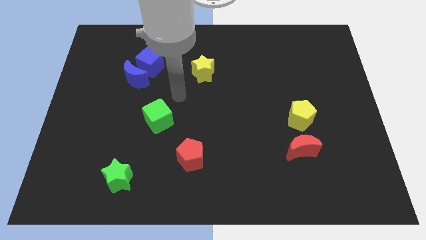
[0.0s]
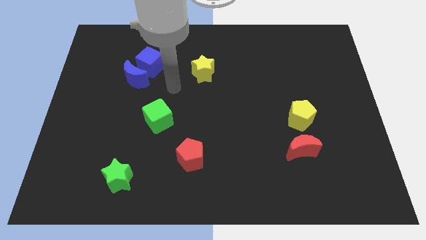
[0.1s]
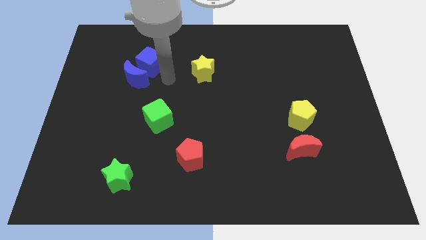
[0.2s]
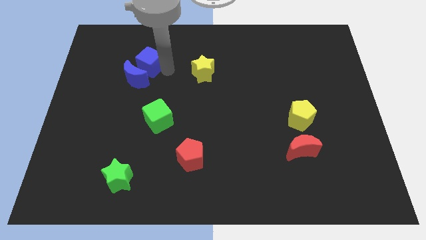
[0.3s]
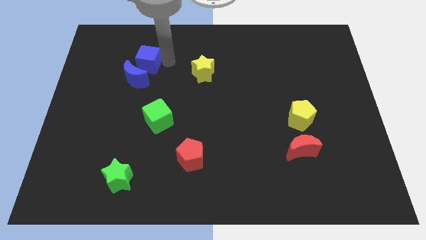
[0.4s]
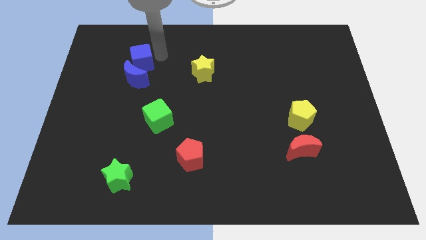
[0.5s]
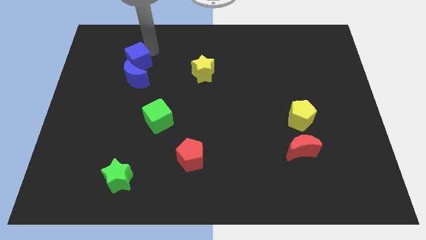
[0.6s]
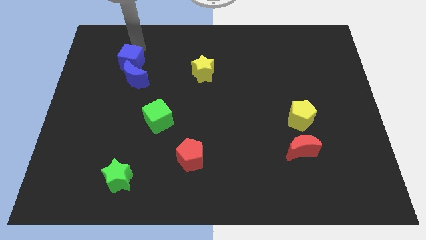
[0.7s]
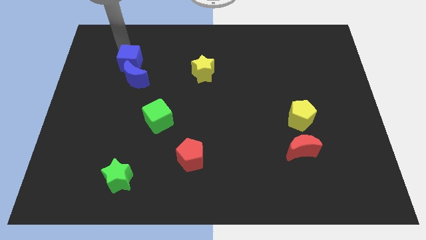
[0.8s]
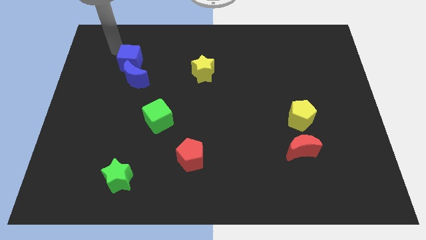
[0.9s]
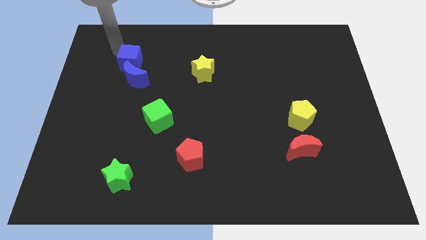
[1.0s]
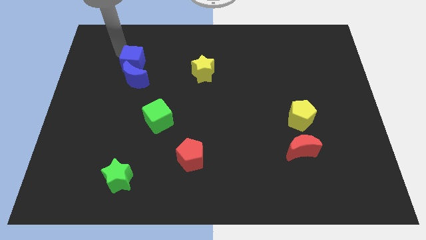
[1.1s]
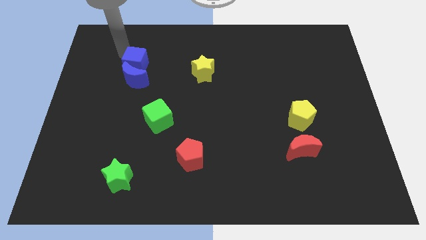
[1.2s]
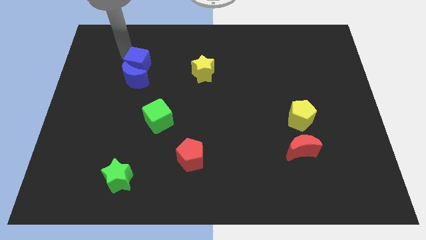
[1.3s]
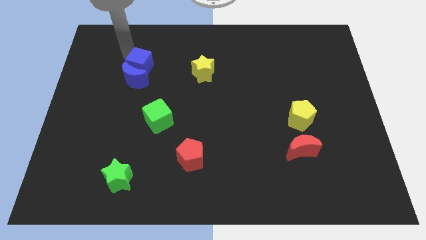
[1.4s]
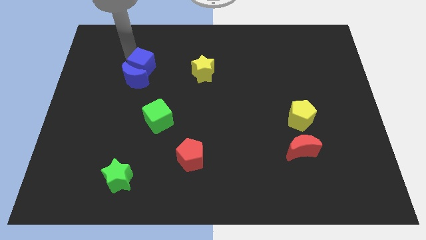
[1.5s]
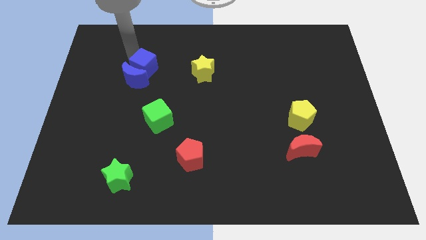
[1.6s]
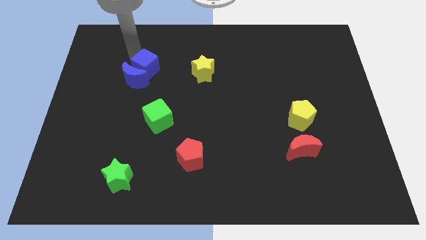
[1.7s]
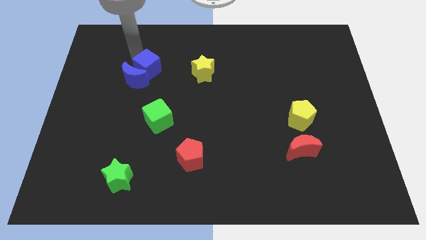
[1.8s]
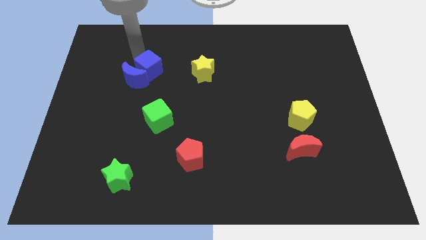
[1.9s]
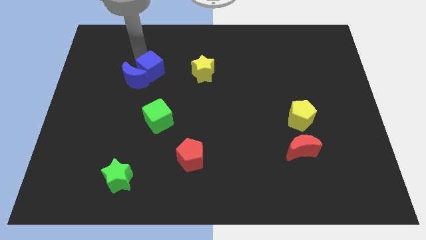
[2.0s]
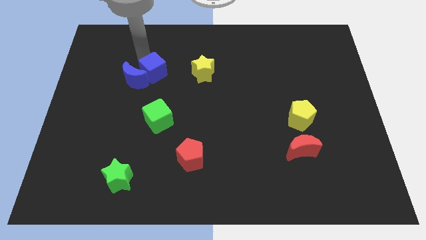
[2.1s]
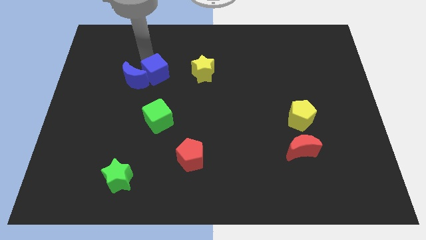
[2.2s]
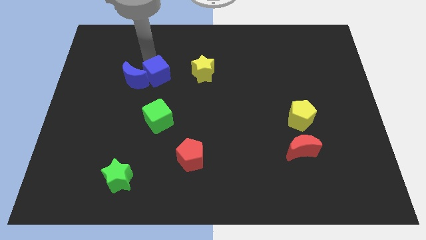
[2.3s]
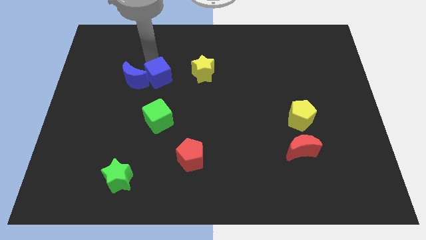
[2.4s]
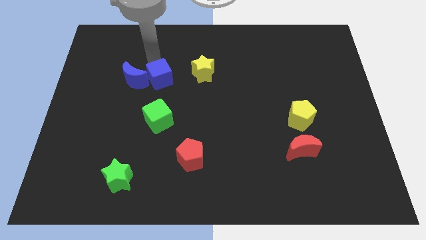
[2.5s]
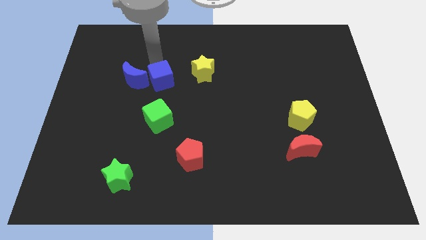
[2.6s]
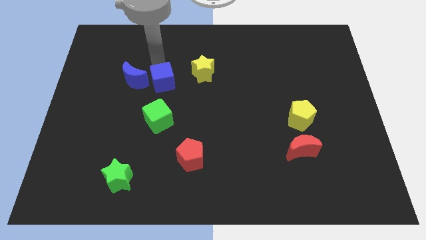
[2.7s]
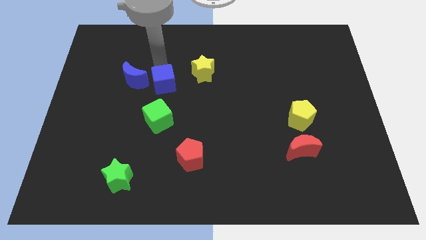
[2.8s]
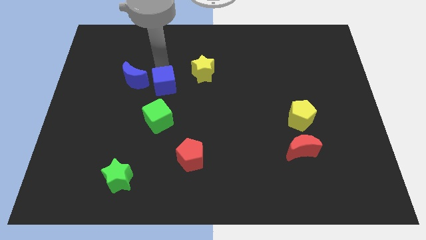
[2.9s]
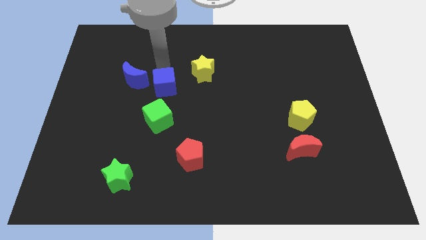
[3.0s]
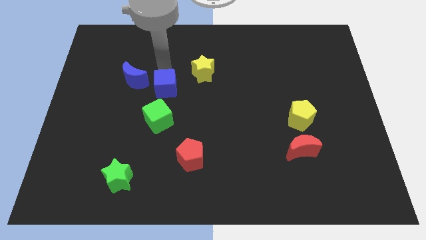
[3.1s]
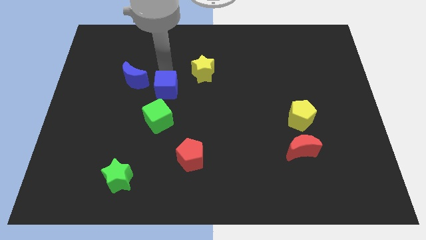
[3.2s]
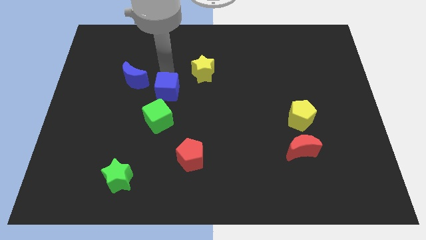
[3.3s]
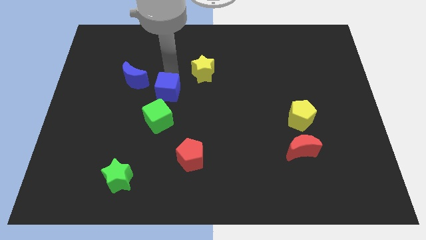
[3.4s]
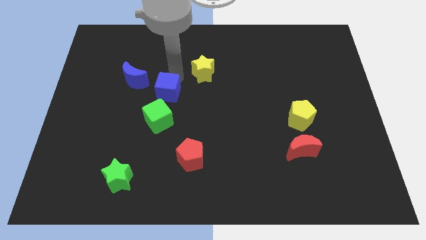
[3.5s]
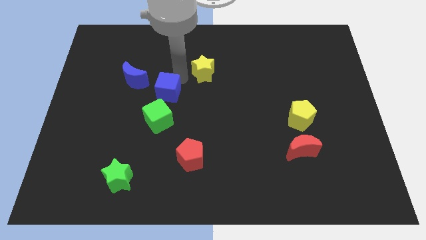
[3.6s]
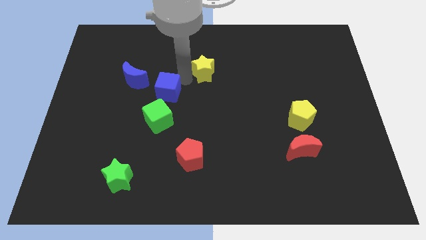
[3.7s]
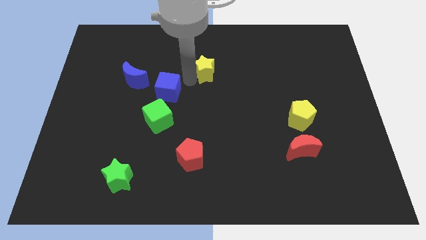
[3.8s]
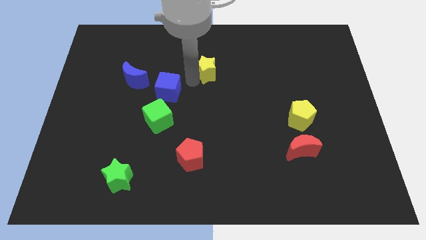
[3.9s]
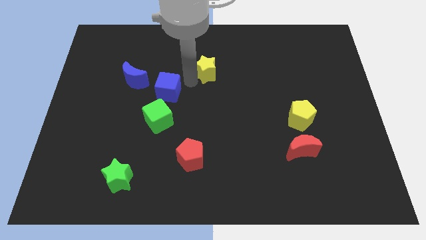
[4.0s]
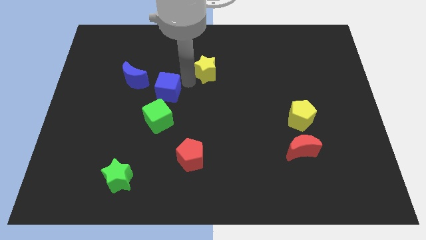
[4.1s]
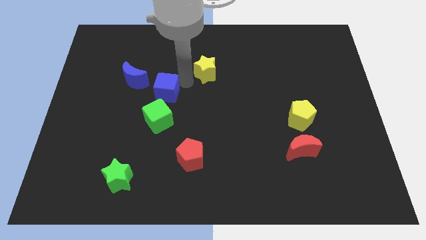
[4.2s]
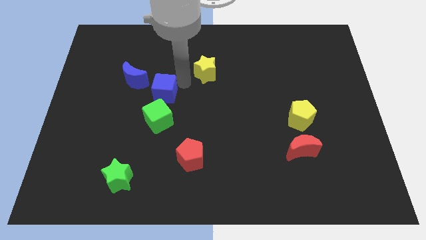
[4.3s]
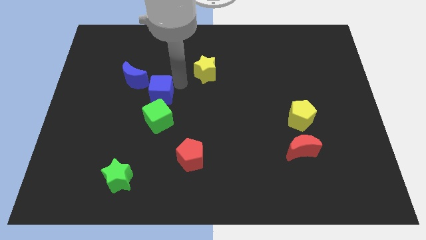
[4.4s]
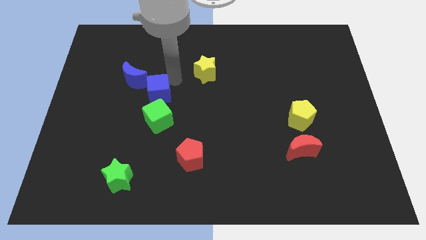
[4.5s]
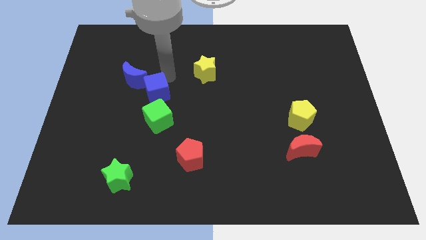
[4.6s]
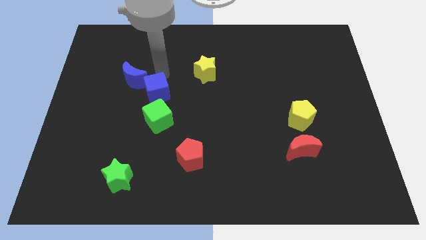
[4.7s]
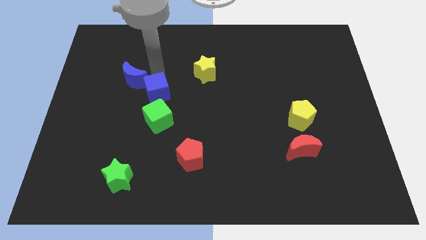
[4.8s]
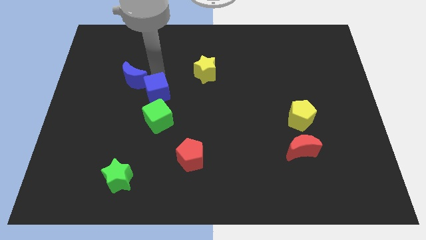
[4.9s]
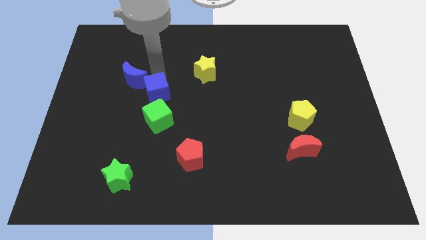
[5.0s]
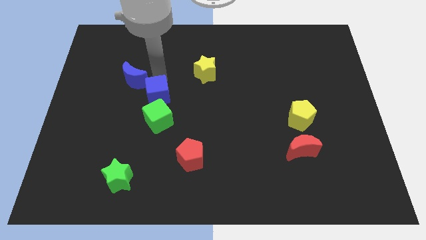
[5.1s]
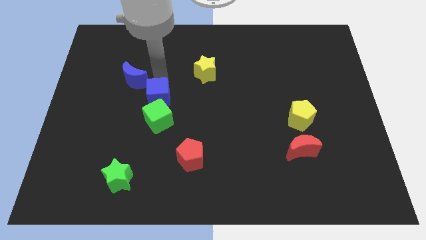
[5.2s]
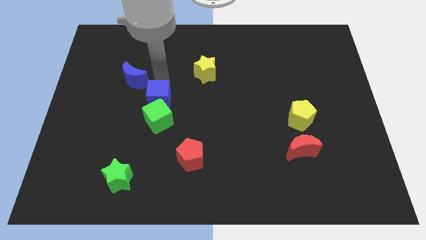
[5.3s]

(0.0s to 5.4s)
slide the blue cube towards the green cube

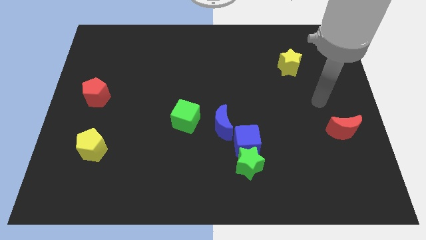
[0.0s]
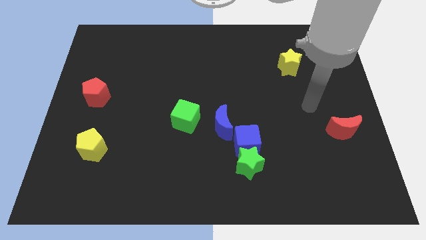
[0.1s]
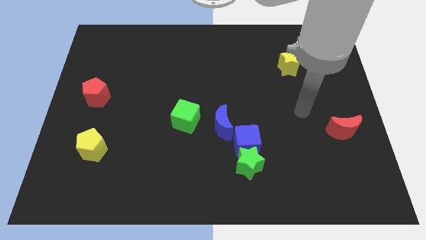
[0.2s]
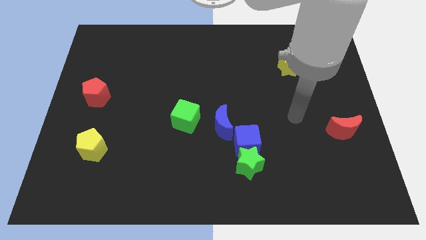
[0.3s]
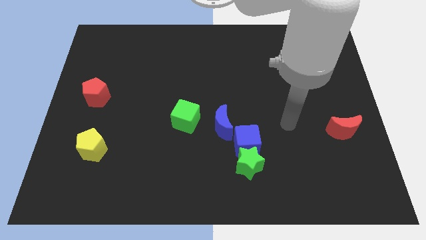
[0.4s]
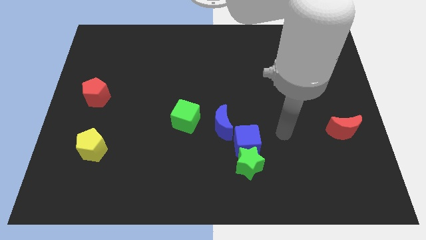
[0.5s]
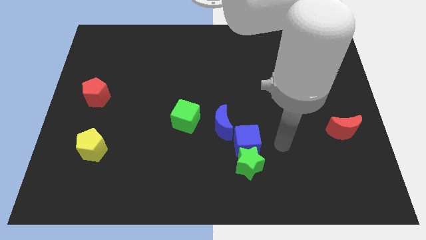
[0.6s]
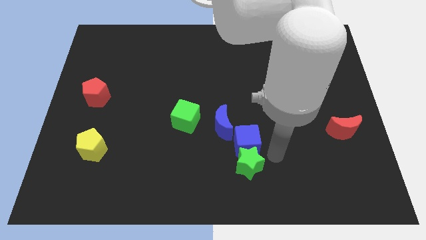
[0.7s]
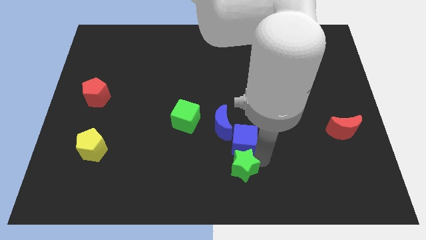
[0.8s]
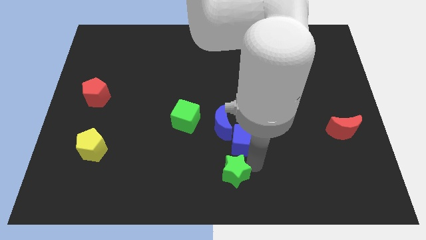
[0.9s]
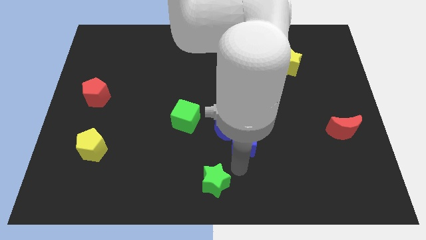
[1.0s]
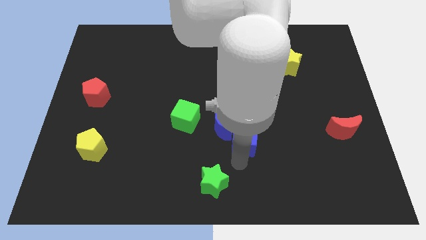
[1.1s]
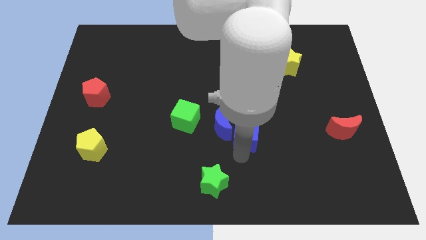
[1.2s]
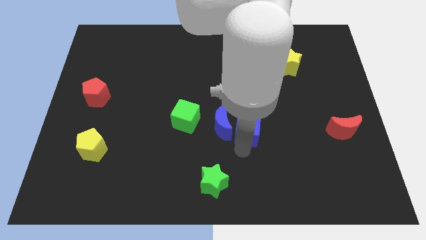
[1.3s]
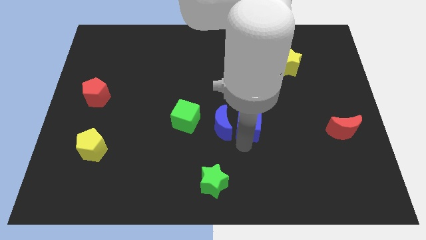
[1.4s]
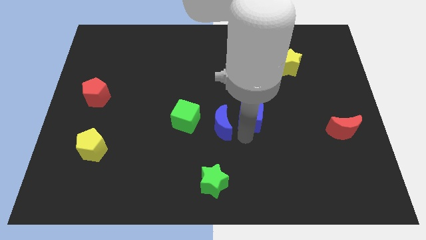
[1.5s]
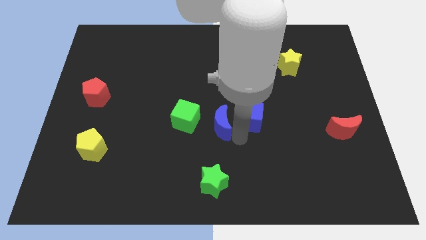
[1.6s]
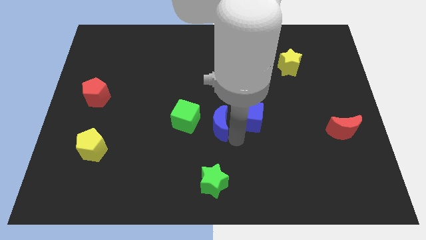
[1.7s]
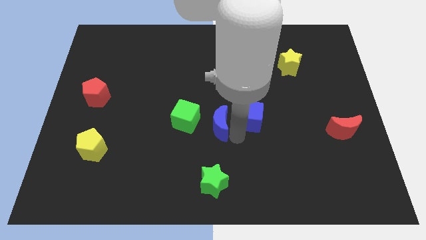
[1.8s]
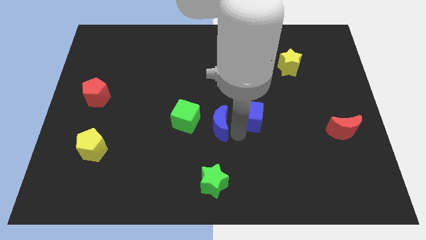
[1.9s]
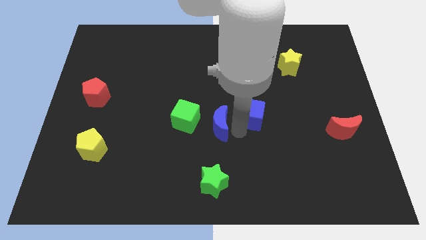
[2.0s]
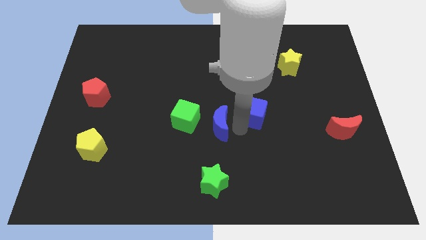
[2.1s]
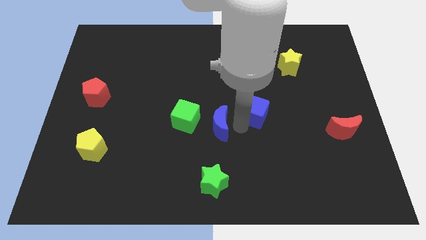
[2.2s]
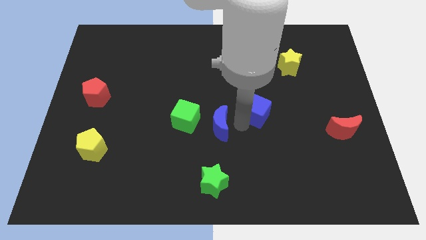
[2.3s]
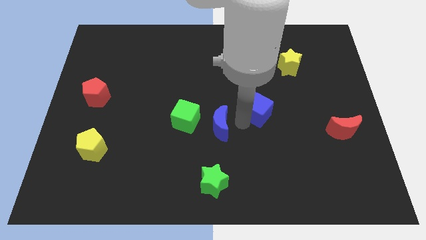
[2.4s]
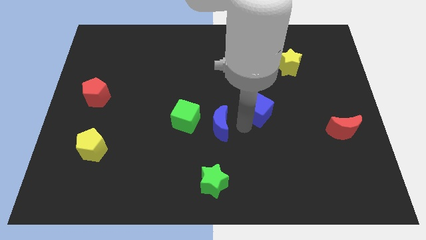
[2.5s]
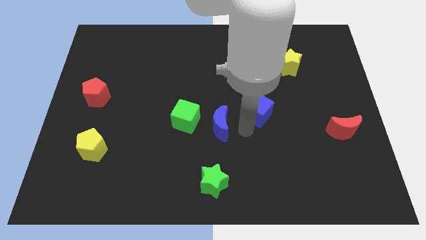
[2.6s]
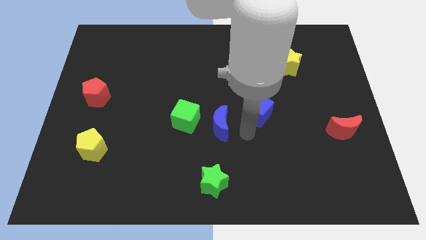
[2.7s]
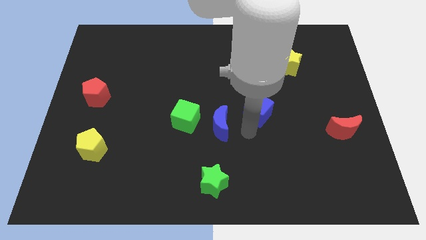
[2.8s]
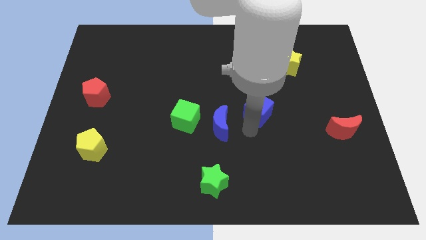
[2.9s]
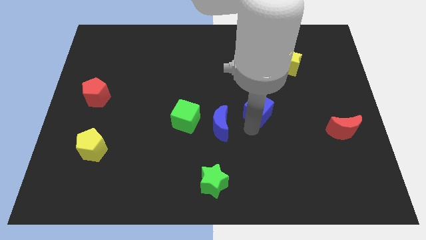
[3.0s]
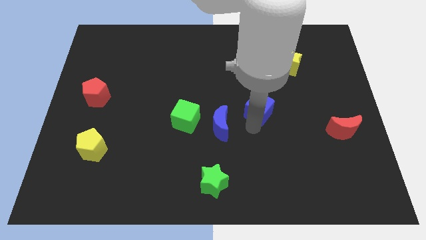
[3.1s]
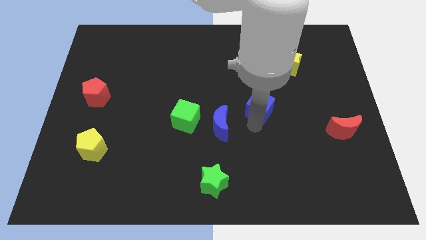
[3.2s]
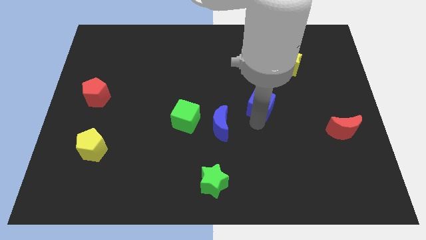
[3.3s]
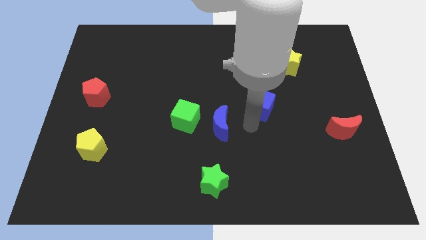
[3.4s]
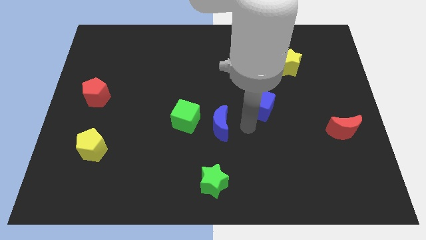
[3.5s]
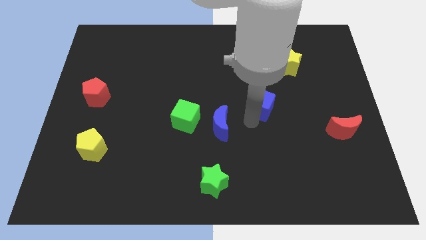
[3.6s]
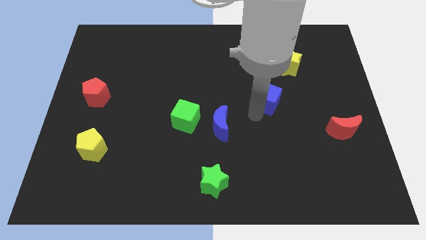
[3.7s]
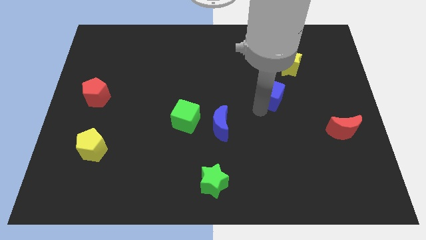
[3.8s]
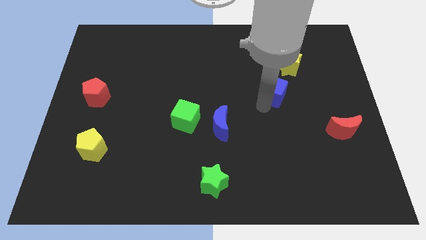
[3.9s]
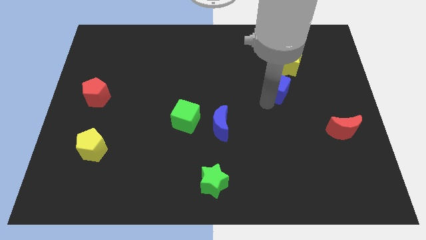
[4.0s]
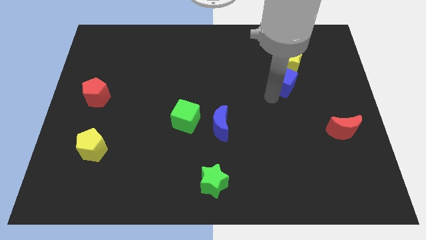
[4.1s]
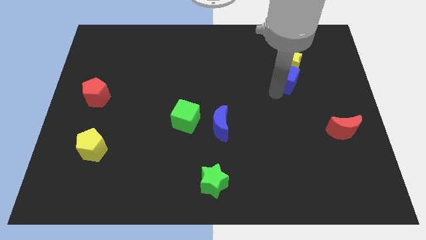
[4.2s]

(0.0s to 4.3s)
put the blue cube next to the yellow star
